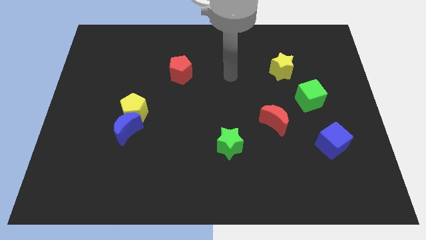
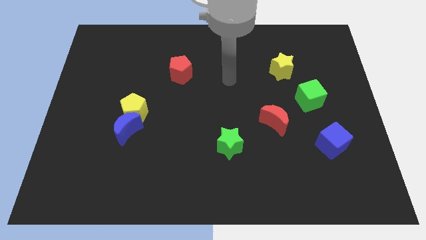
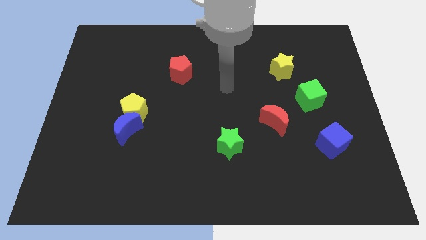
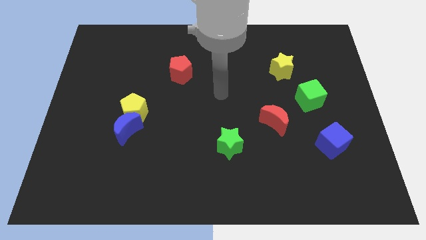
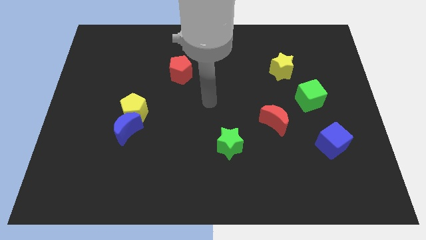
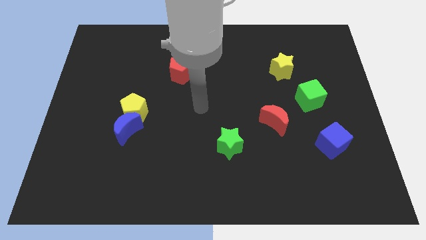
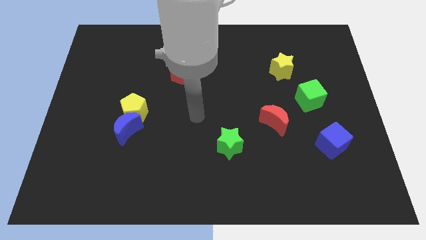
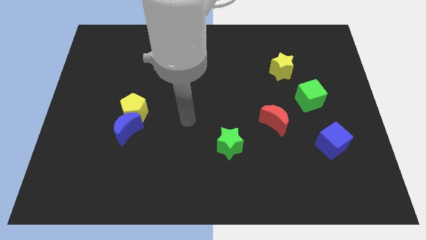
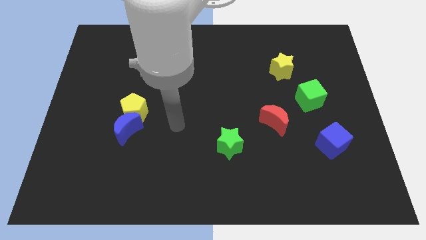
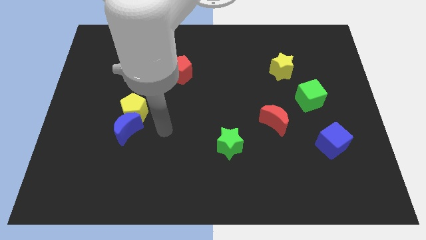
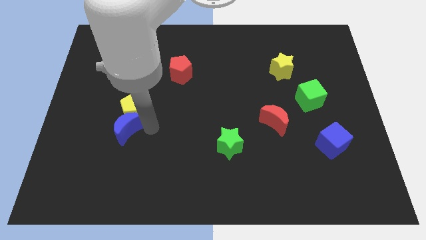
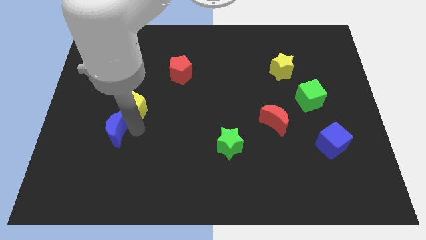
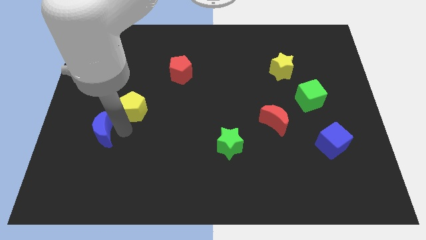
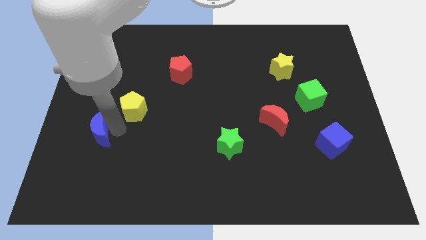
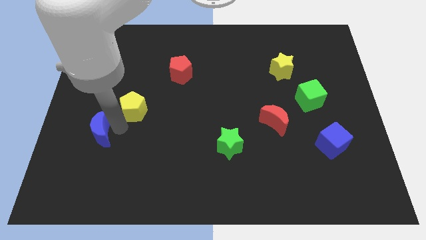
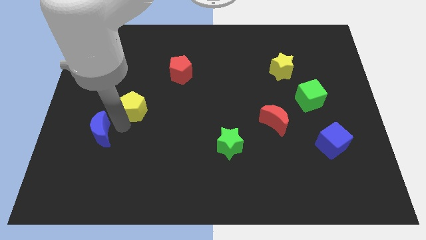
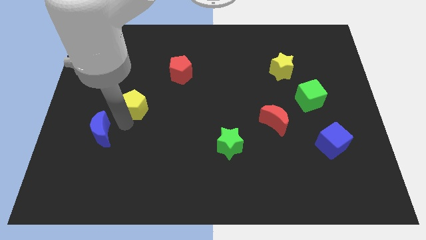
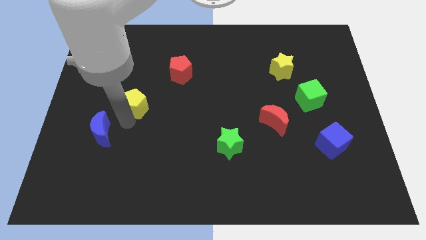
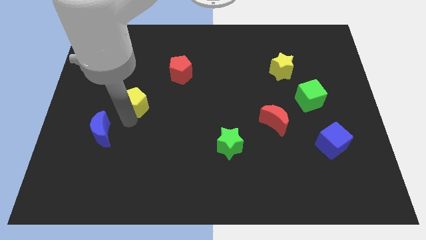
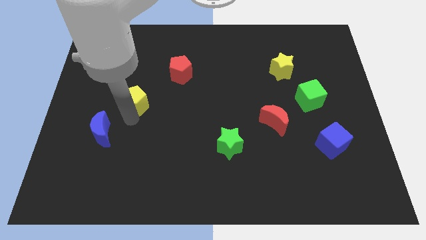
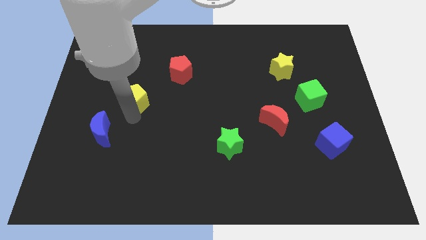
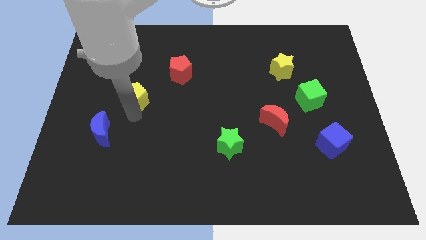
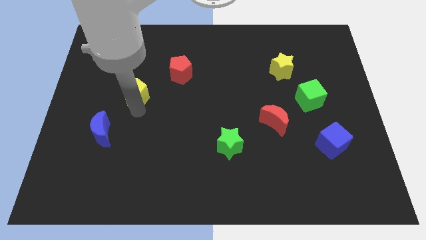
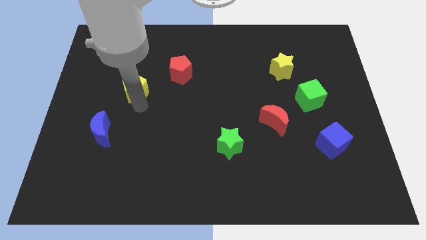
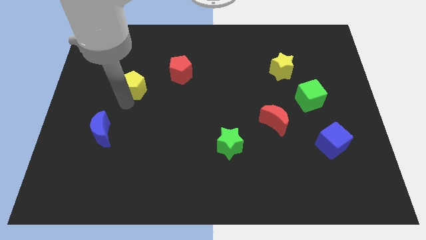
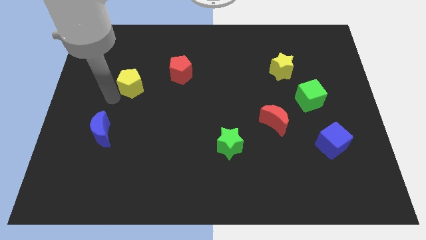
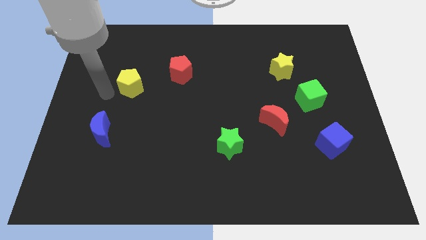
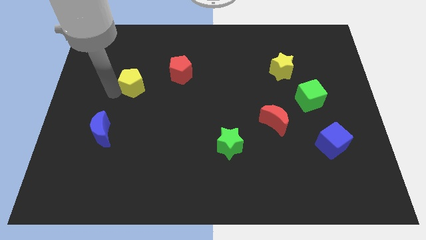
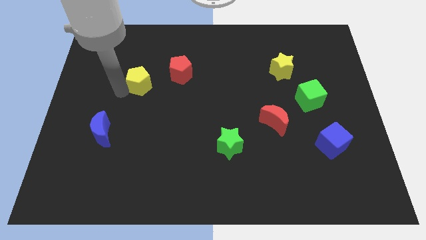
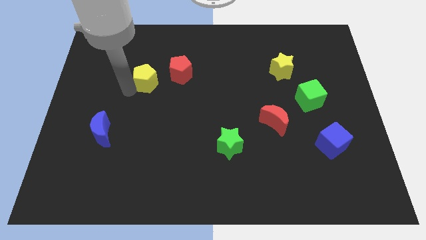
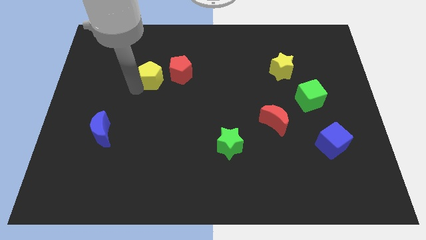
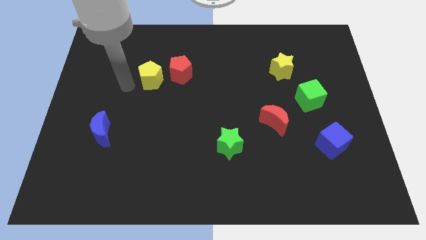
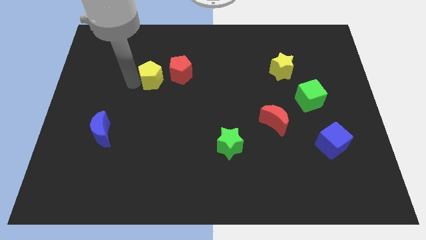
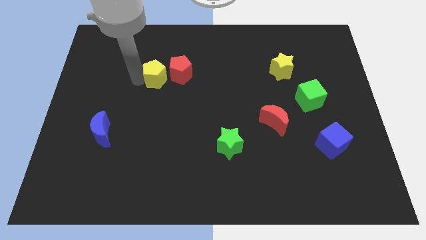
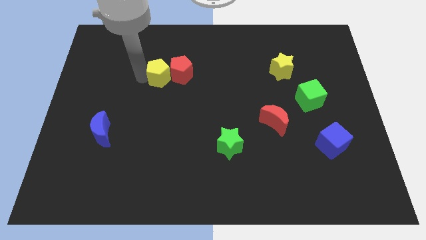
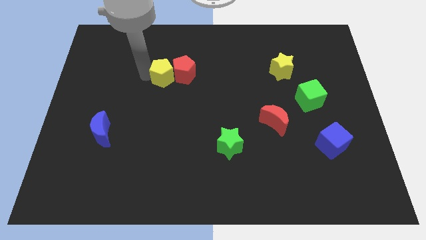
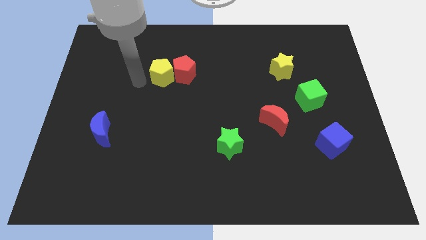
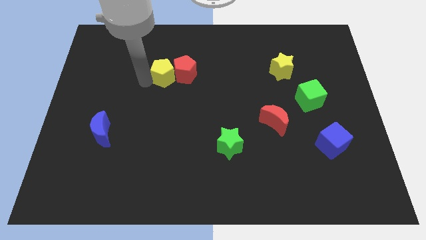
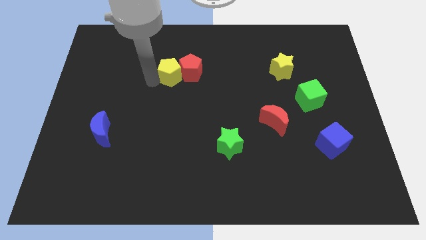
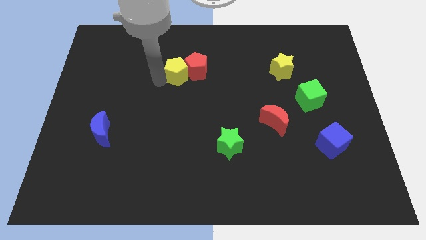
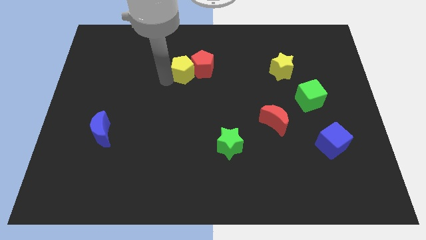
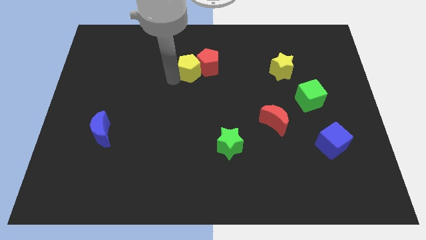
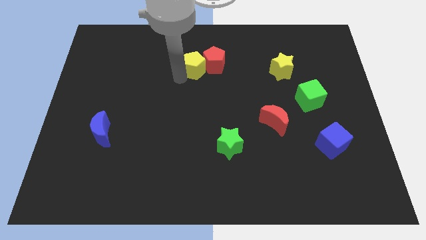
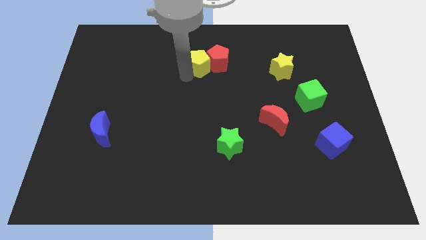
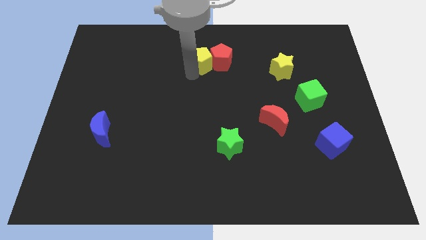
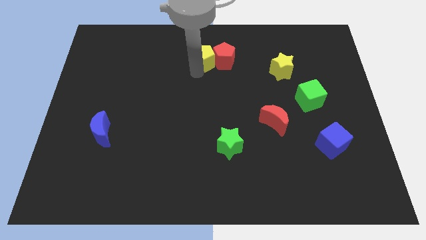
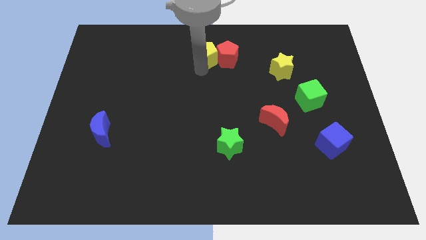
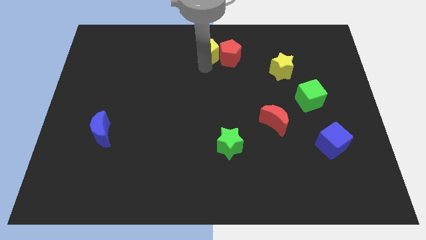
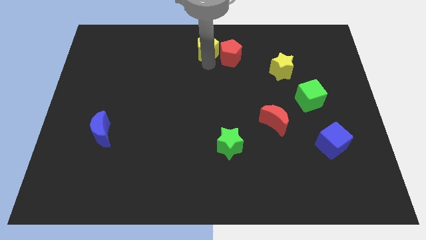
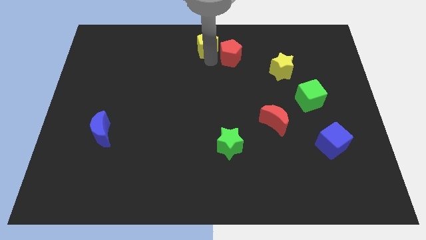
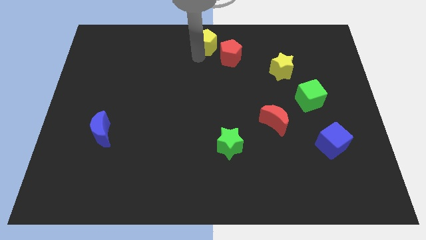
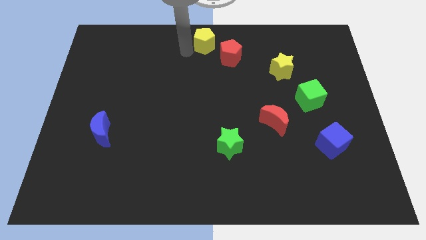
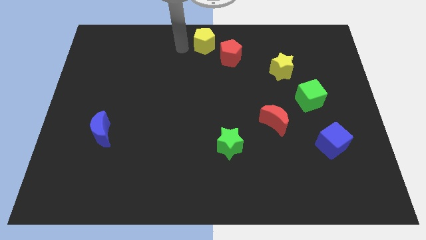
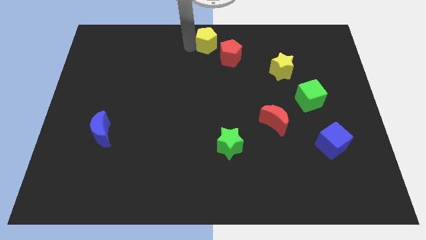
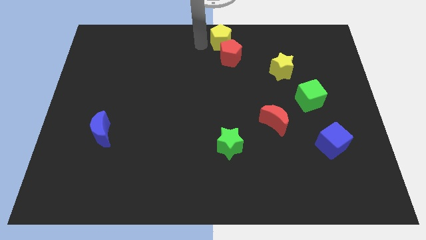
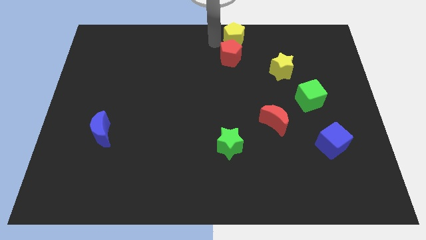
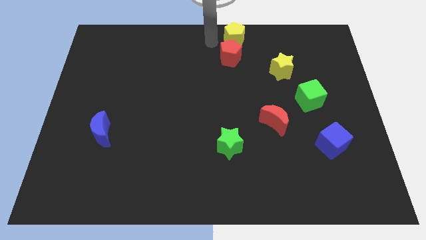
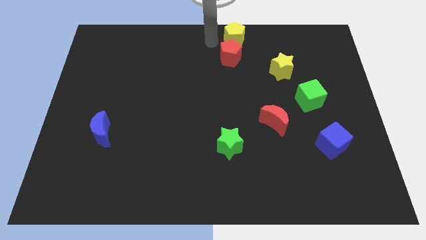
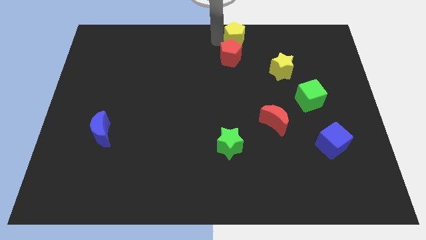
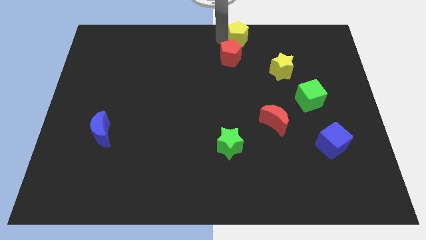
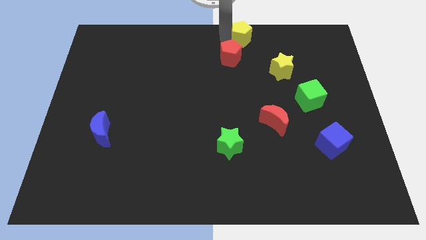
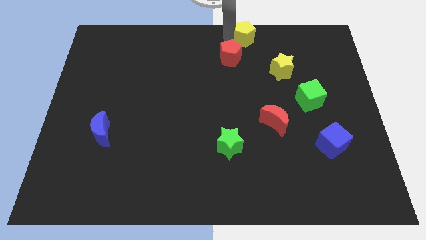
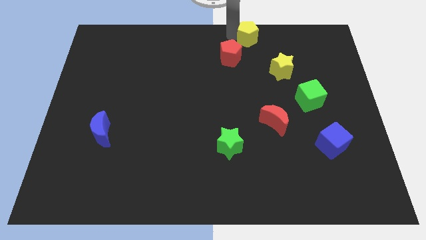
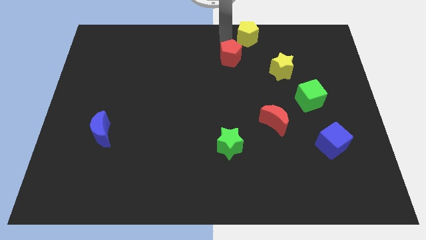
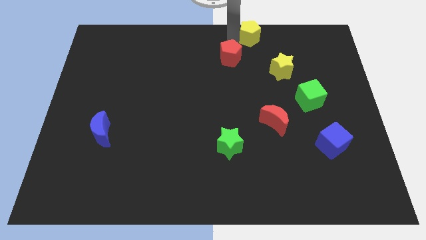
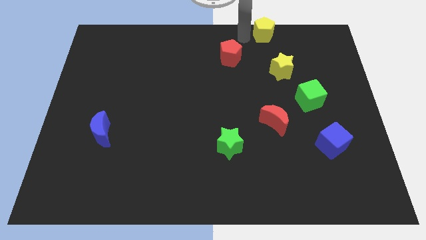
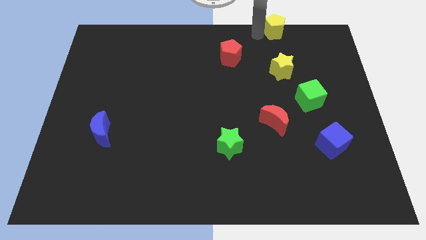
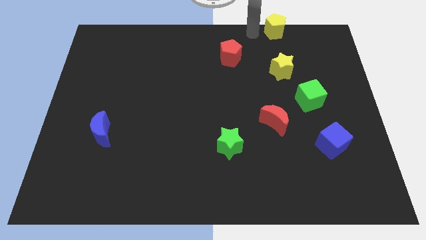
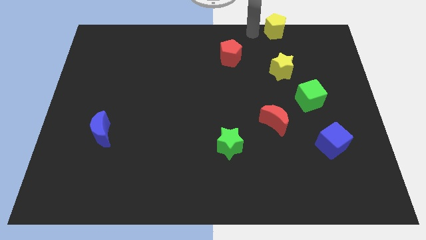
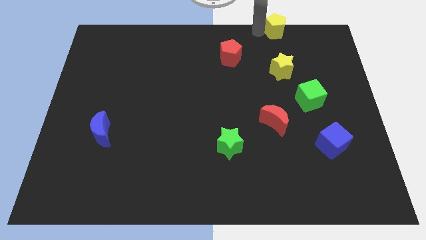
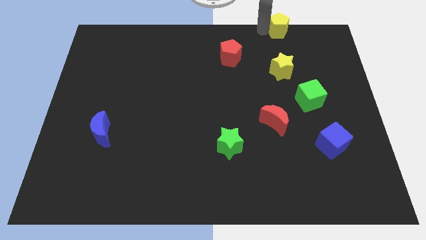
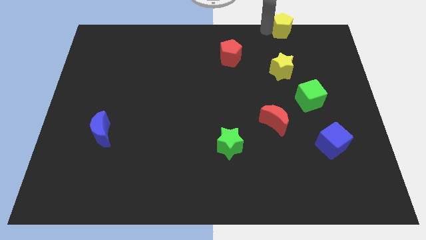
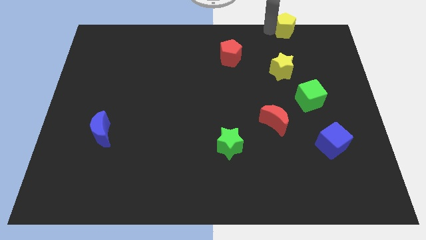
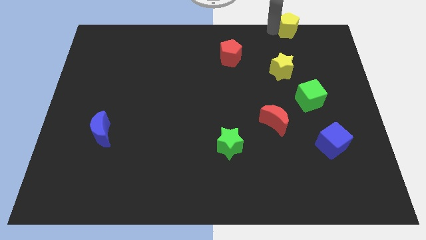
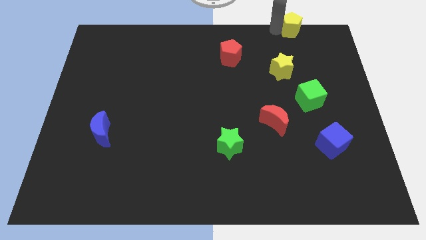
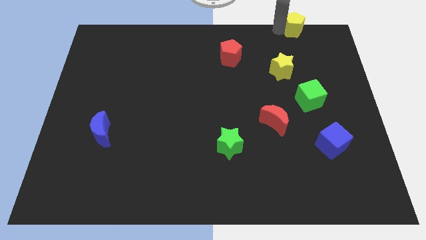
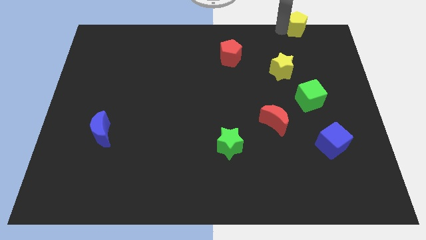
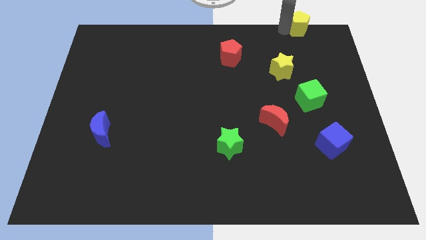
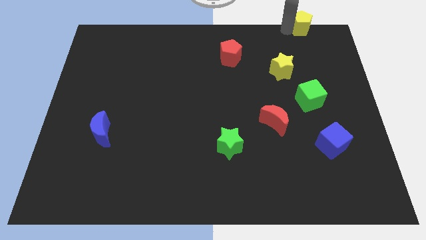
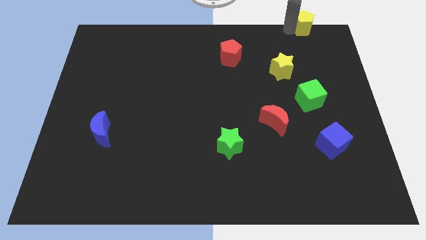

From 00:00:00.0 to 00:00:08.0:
move the yellow pentagon to the top right
